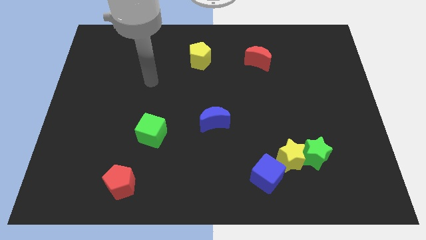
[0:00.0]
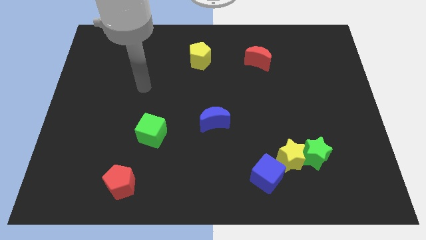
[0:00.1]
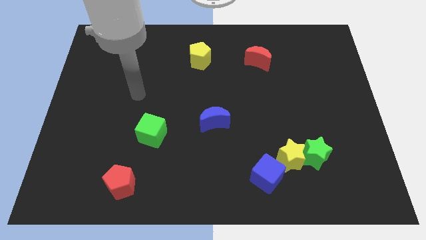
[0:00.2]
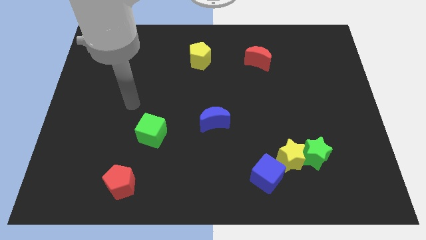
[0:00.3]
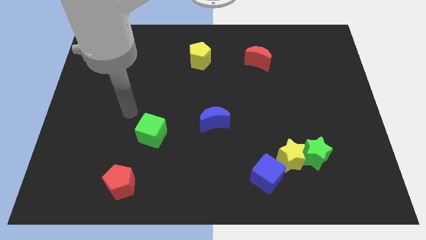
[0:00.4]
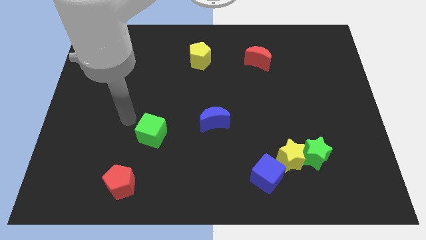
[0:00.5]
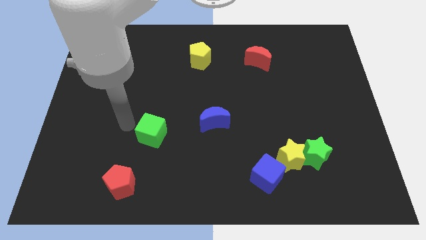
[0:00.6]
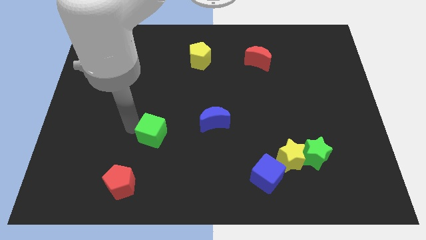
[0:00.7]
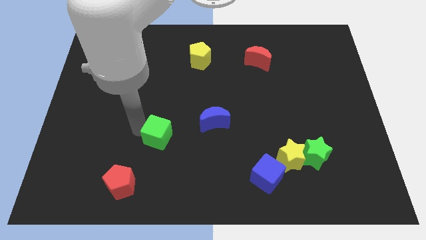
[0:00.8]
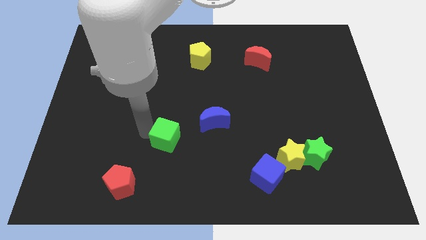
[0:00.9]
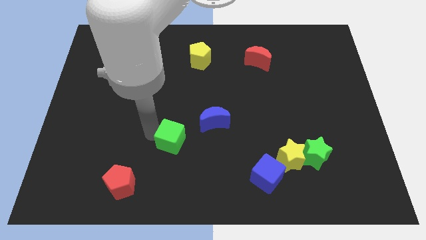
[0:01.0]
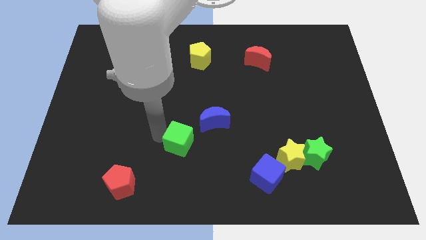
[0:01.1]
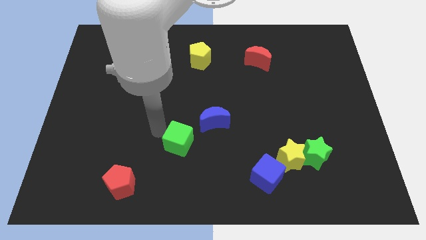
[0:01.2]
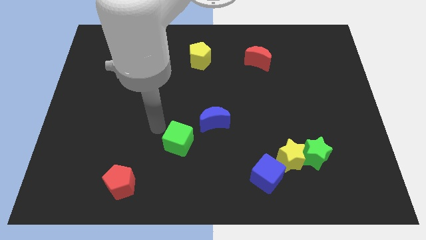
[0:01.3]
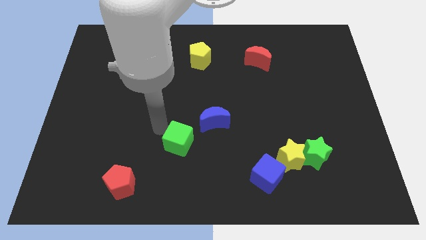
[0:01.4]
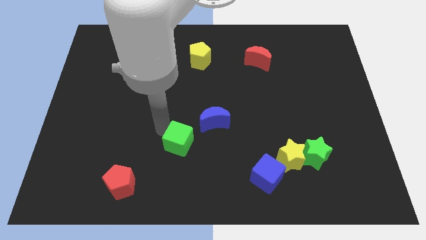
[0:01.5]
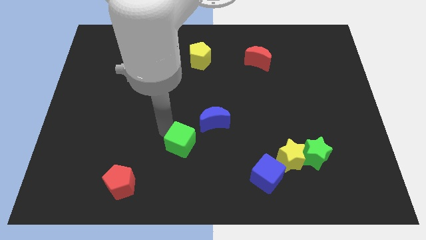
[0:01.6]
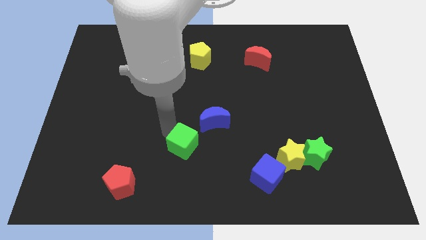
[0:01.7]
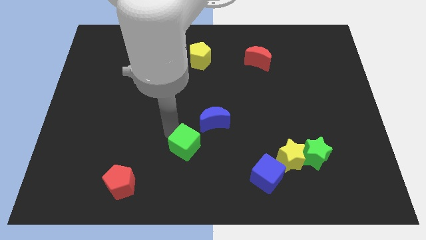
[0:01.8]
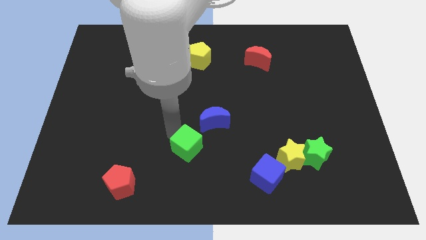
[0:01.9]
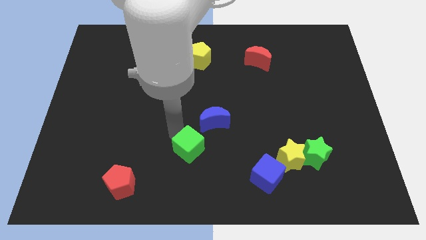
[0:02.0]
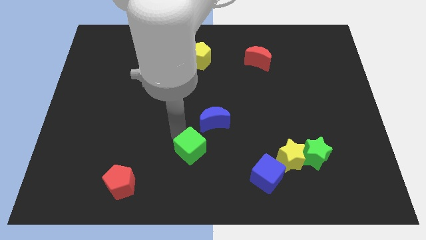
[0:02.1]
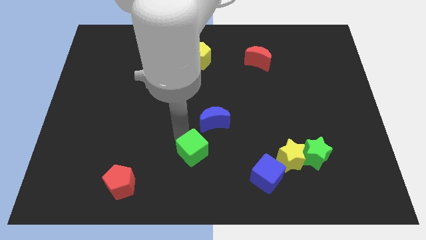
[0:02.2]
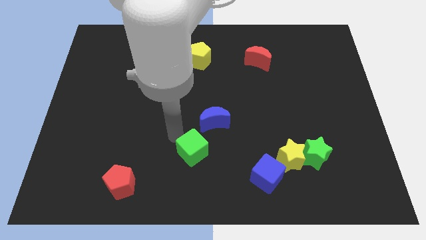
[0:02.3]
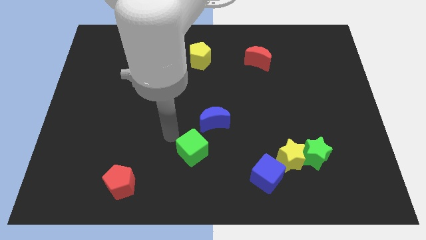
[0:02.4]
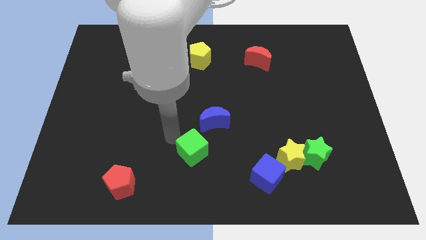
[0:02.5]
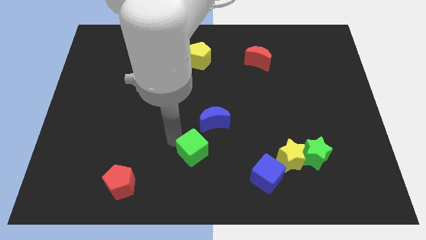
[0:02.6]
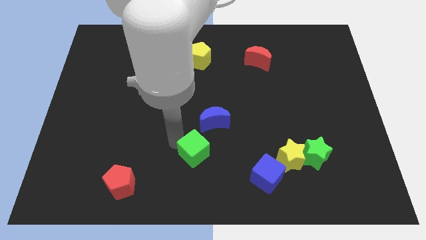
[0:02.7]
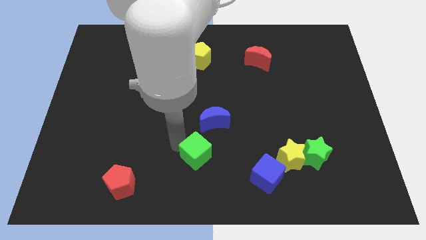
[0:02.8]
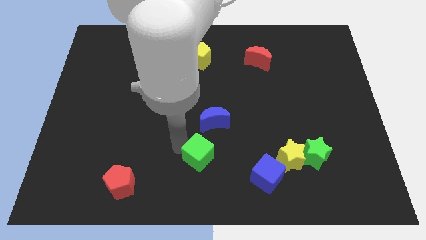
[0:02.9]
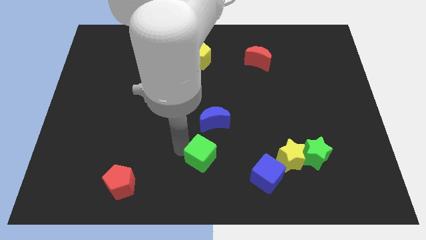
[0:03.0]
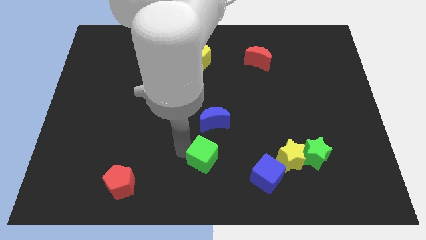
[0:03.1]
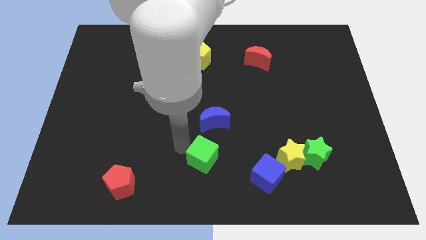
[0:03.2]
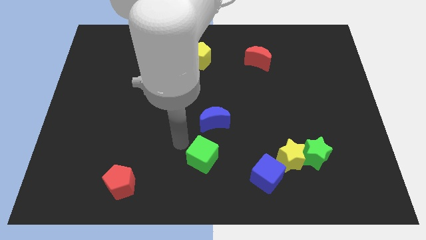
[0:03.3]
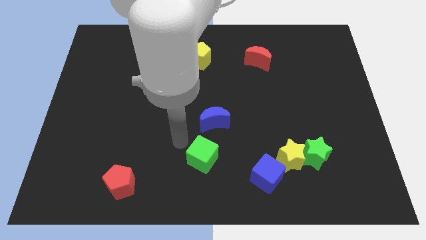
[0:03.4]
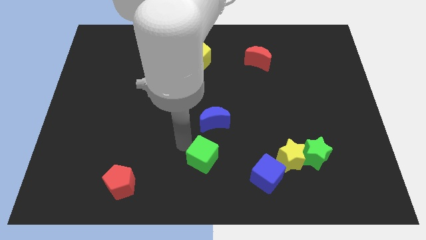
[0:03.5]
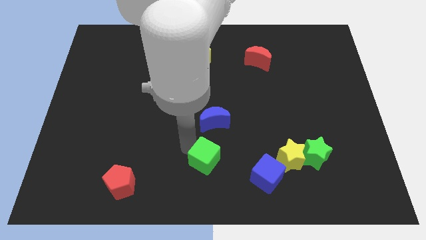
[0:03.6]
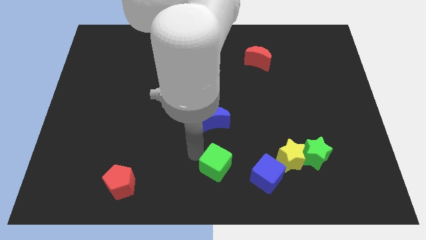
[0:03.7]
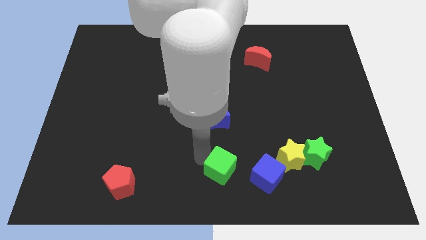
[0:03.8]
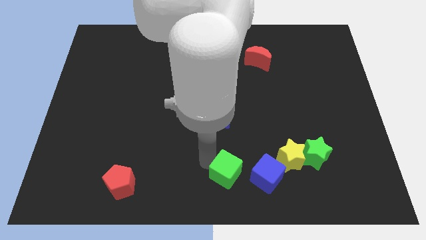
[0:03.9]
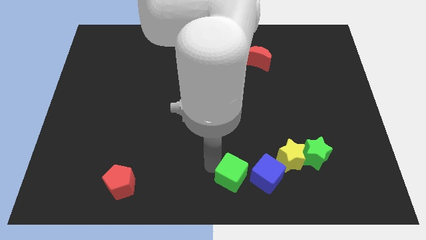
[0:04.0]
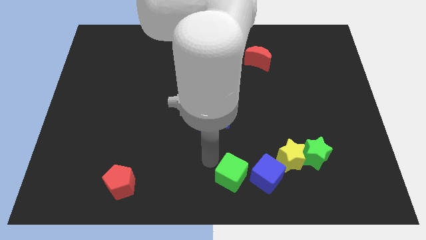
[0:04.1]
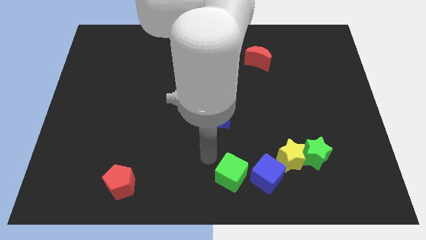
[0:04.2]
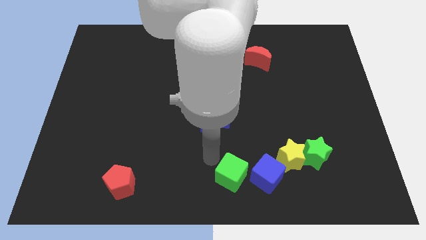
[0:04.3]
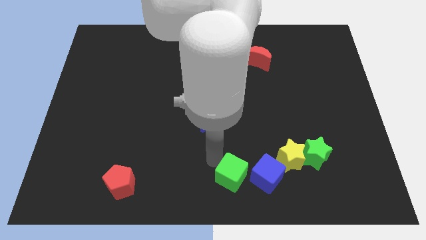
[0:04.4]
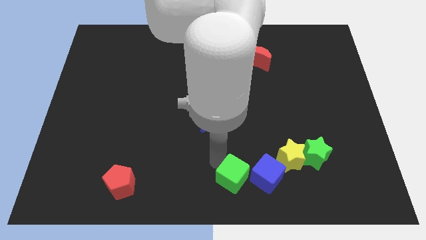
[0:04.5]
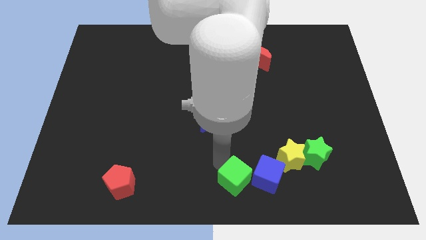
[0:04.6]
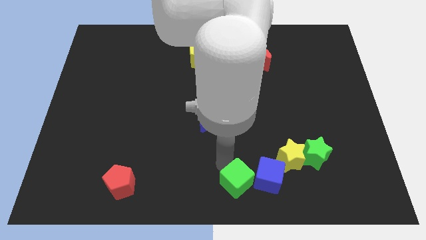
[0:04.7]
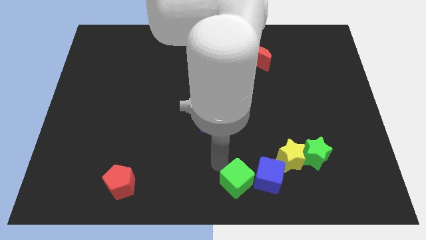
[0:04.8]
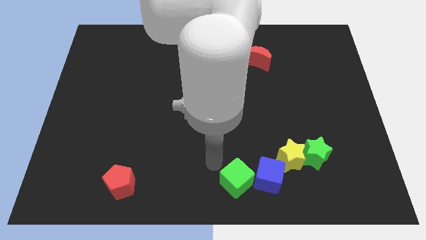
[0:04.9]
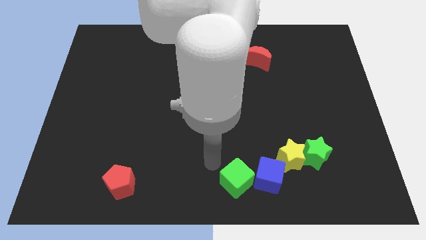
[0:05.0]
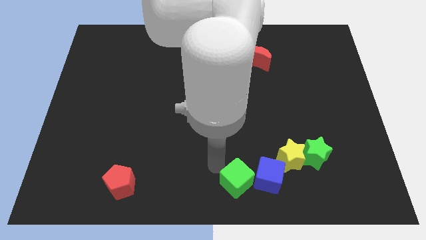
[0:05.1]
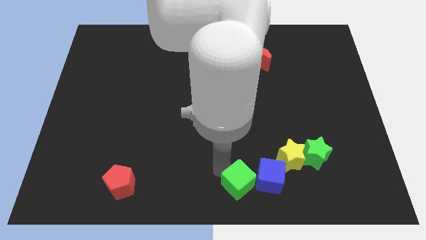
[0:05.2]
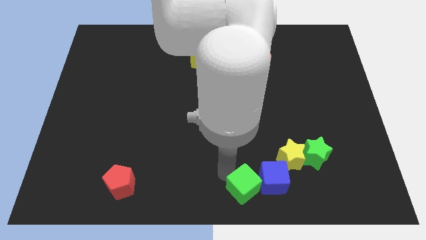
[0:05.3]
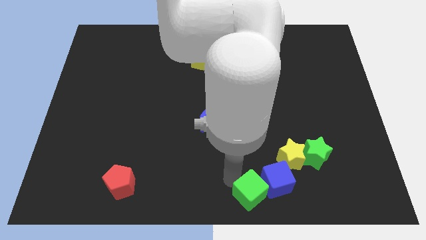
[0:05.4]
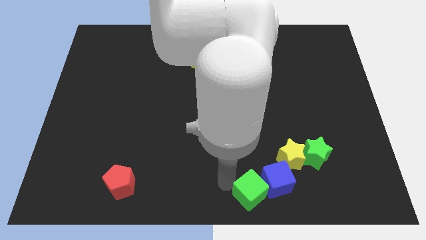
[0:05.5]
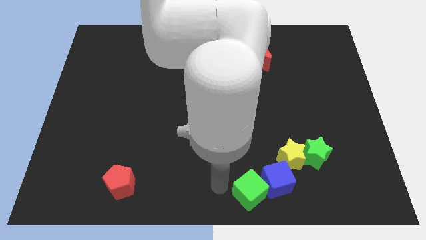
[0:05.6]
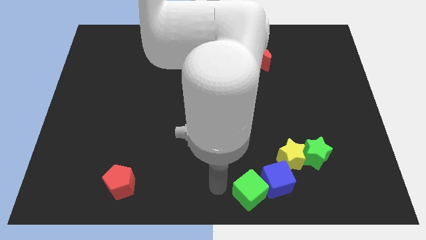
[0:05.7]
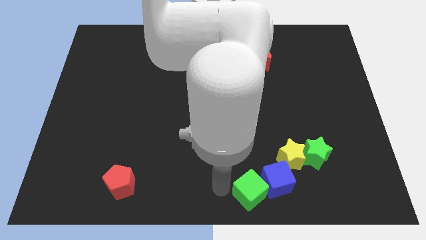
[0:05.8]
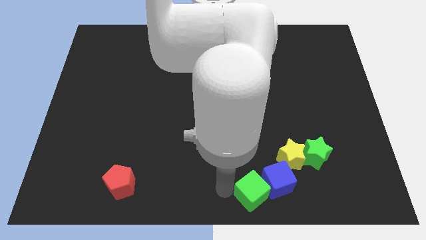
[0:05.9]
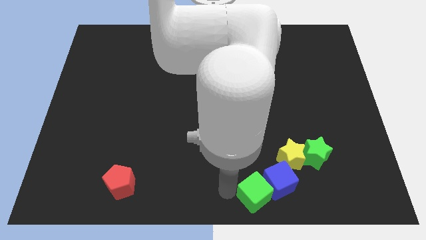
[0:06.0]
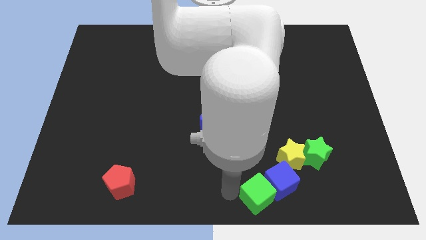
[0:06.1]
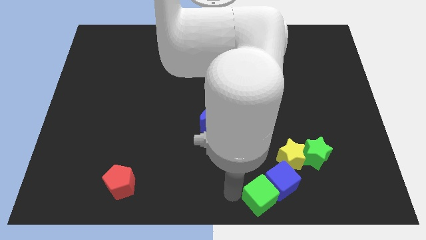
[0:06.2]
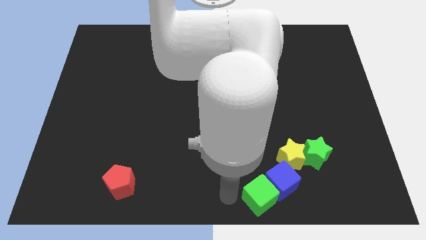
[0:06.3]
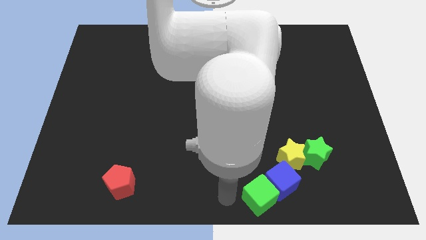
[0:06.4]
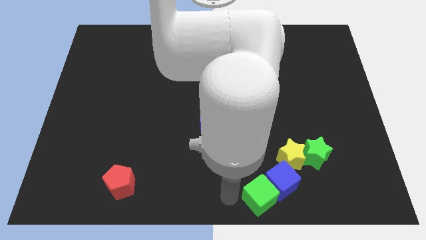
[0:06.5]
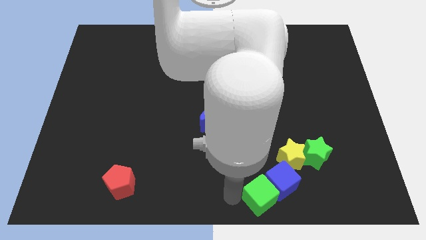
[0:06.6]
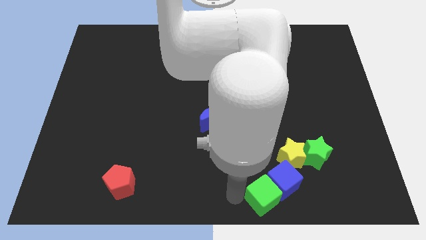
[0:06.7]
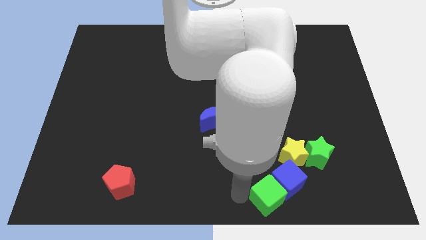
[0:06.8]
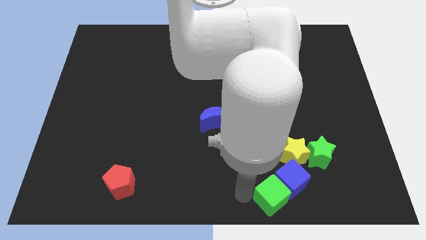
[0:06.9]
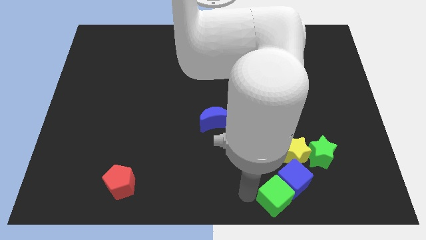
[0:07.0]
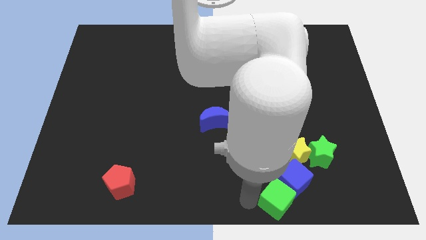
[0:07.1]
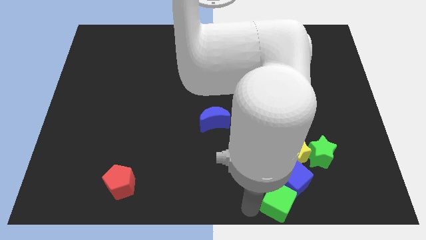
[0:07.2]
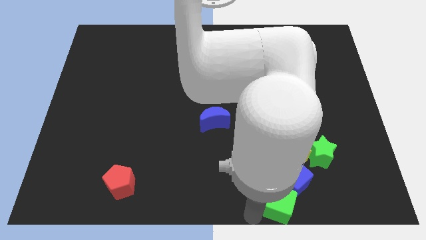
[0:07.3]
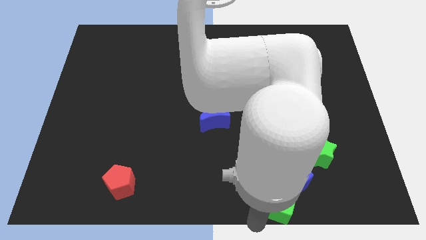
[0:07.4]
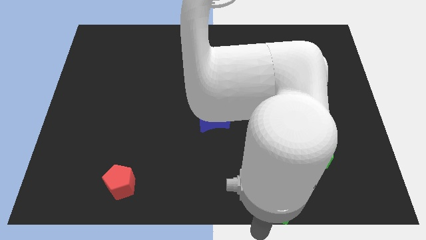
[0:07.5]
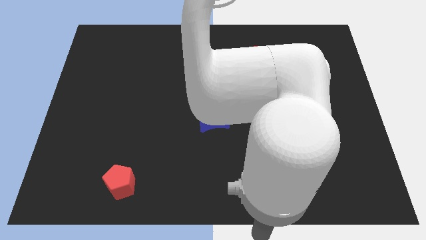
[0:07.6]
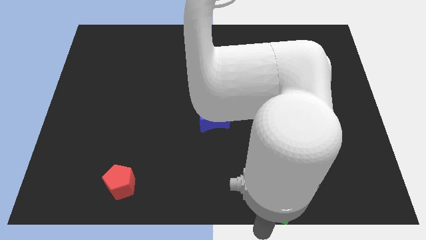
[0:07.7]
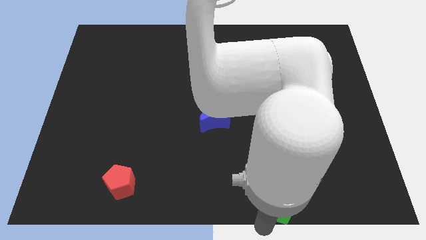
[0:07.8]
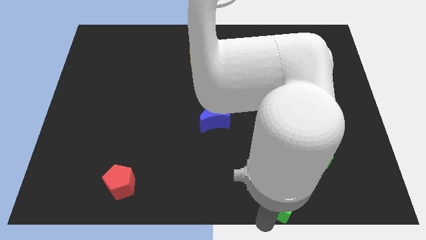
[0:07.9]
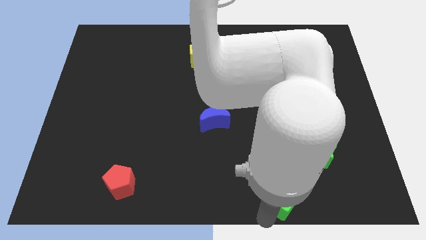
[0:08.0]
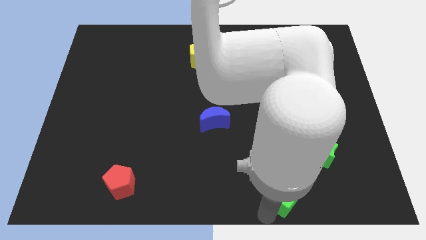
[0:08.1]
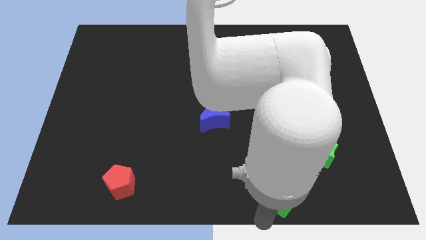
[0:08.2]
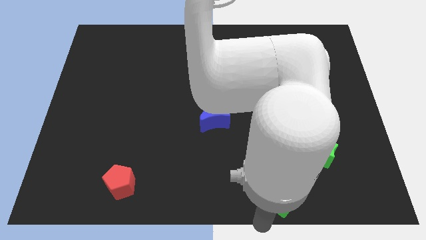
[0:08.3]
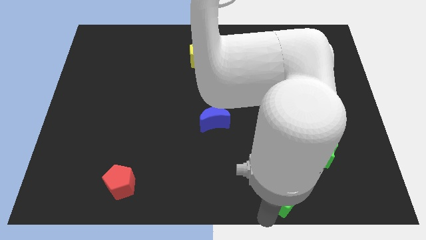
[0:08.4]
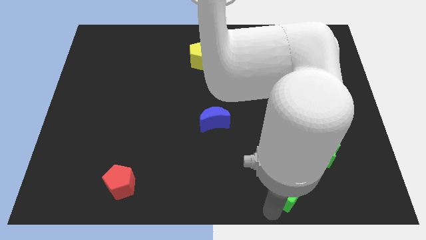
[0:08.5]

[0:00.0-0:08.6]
move the green cube to the bottom left side of the green star
